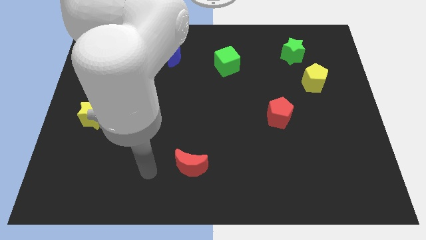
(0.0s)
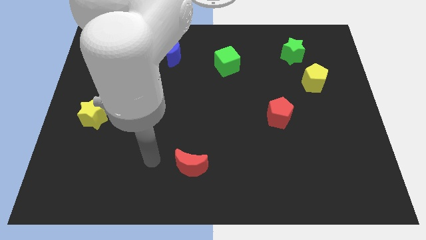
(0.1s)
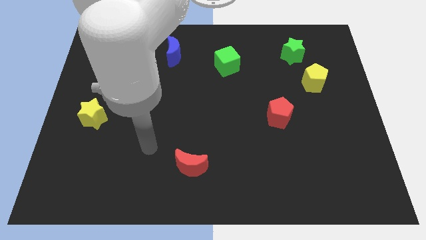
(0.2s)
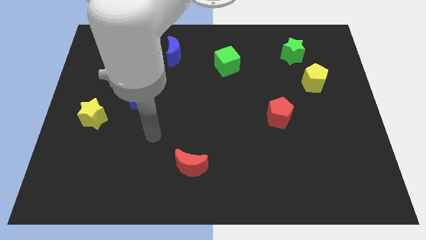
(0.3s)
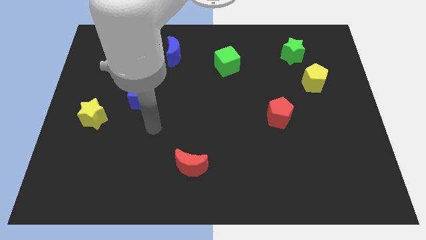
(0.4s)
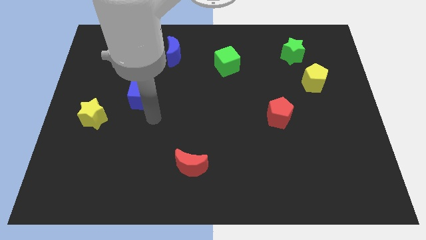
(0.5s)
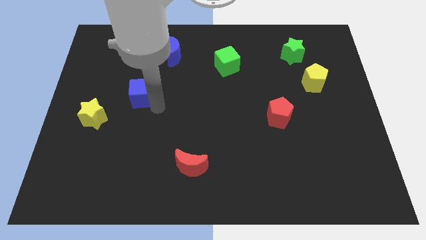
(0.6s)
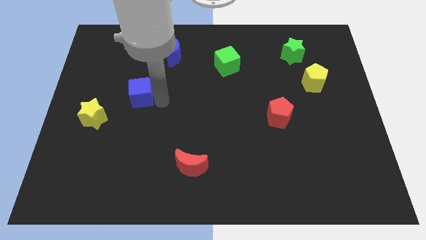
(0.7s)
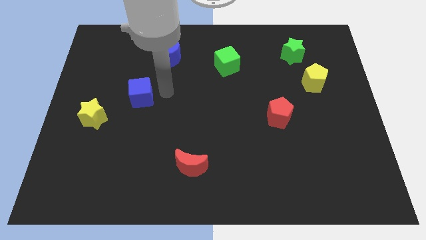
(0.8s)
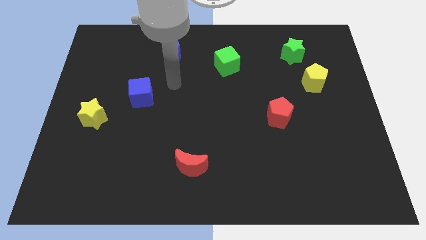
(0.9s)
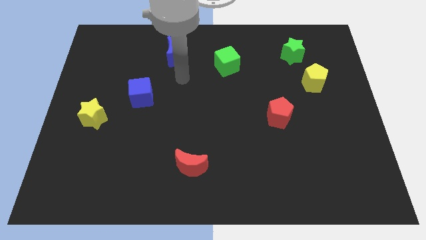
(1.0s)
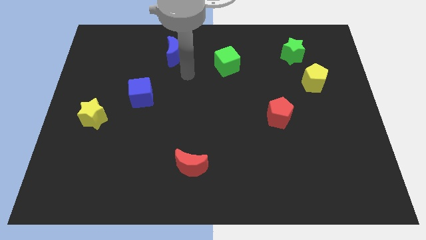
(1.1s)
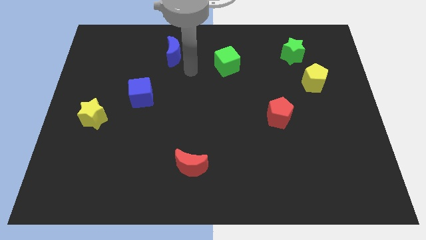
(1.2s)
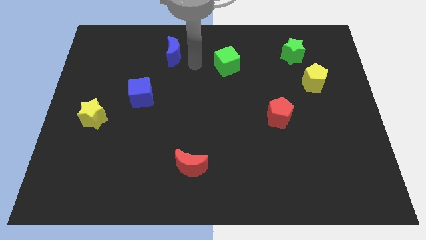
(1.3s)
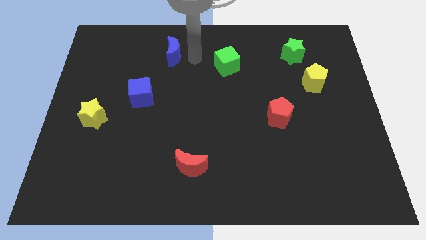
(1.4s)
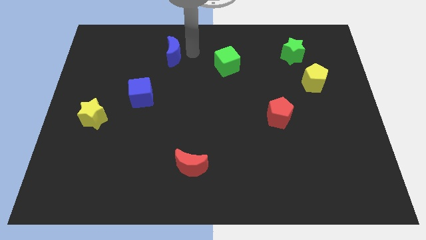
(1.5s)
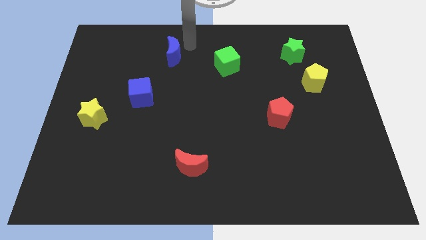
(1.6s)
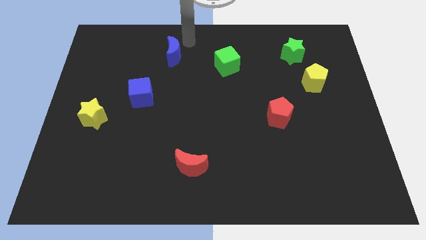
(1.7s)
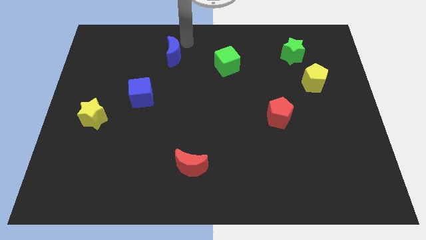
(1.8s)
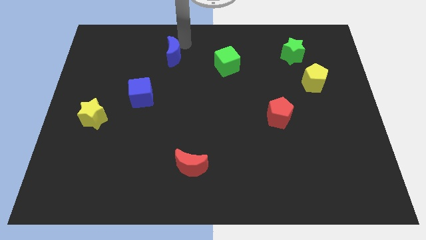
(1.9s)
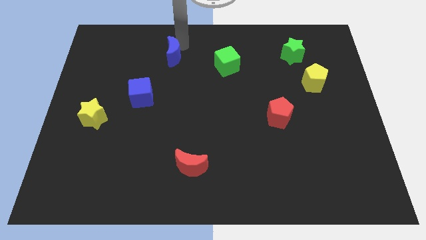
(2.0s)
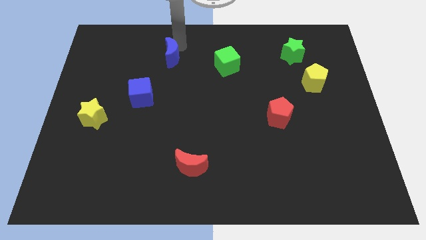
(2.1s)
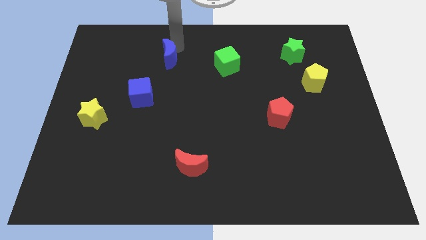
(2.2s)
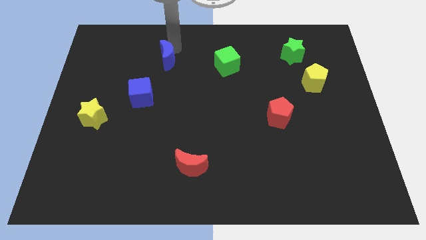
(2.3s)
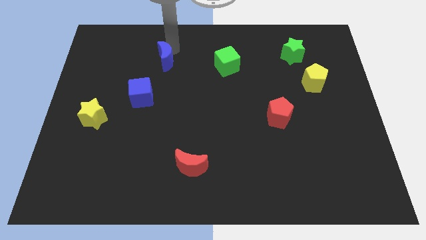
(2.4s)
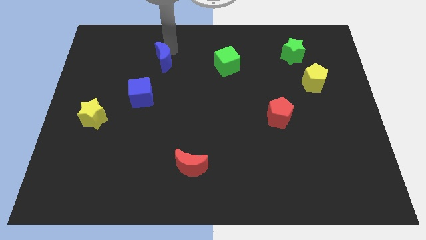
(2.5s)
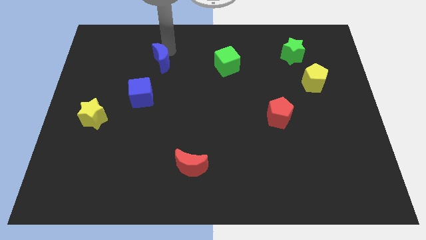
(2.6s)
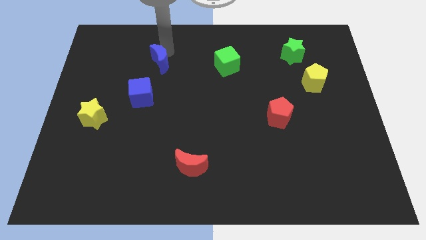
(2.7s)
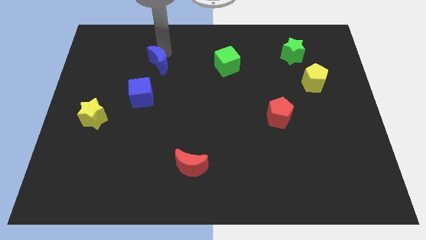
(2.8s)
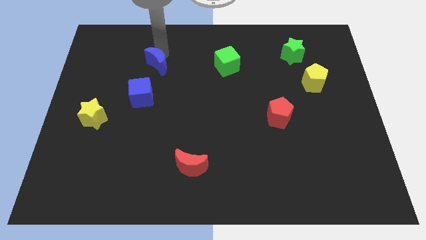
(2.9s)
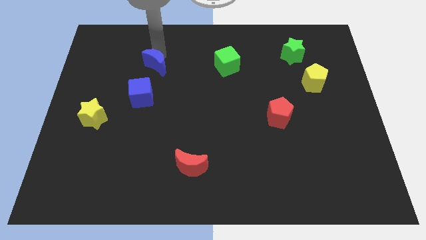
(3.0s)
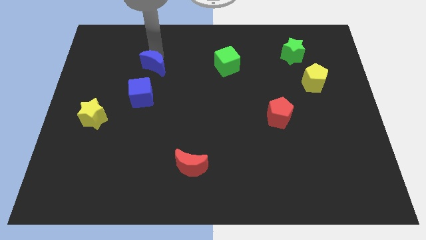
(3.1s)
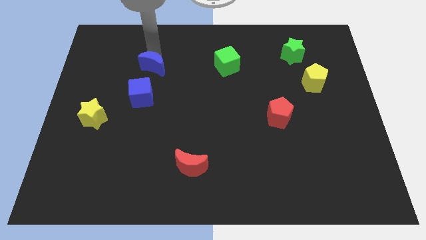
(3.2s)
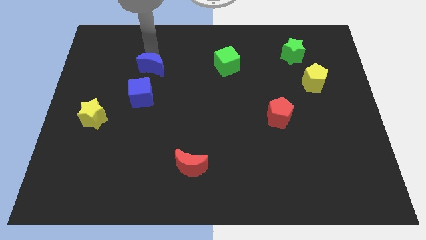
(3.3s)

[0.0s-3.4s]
push the blue moon slightly downwards and then left

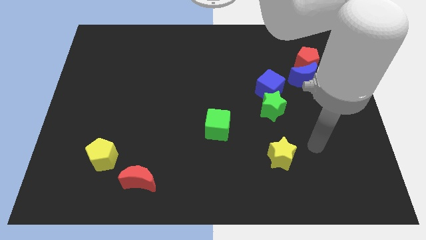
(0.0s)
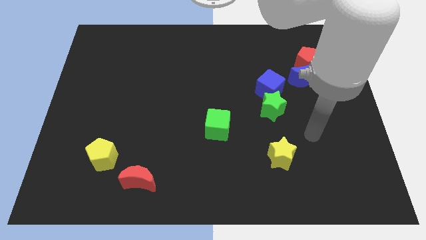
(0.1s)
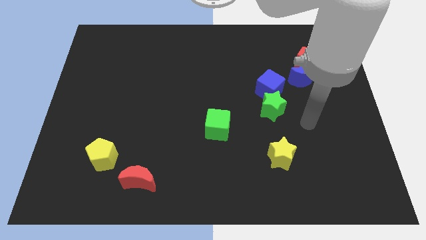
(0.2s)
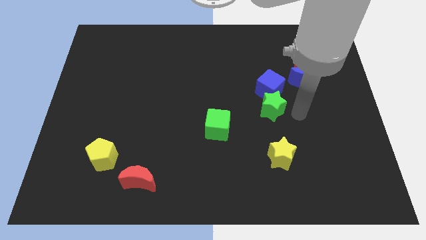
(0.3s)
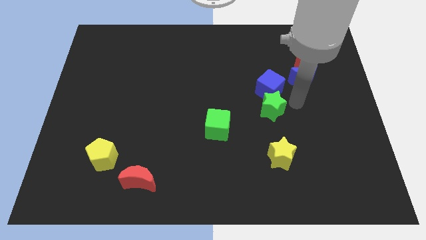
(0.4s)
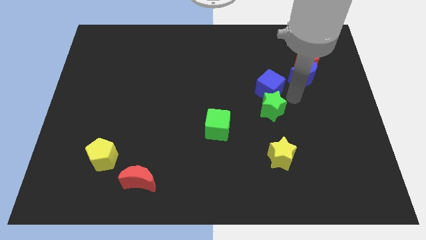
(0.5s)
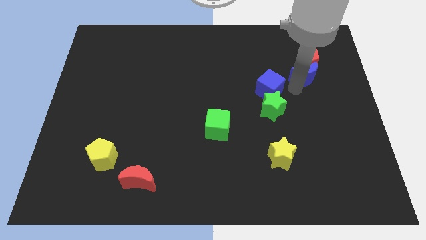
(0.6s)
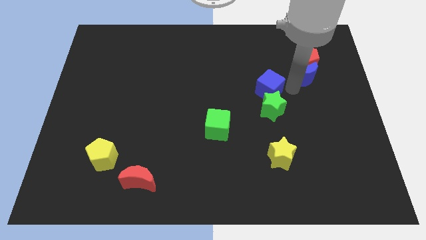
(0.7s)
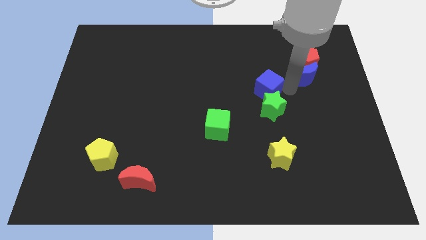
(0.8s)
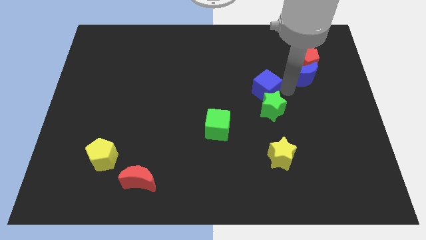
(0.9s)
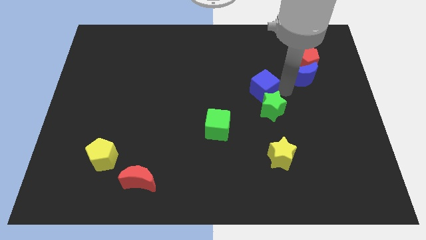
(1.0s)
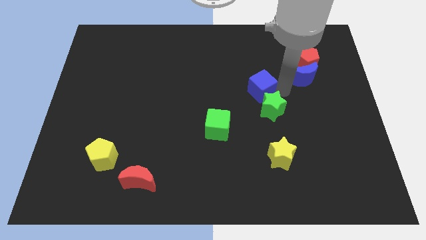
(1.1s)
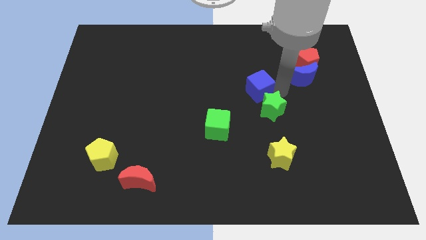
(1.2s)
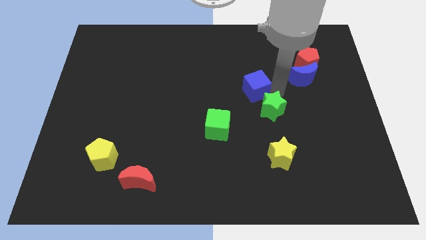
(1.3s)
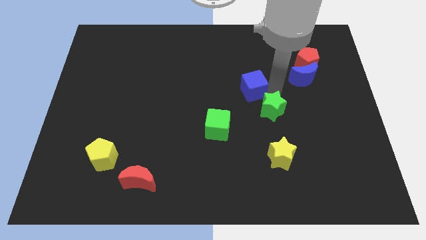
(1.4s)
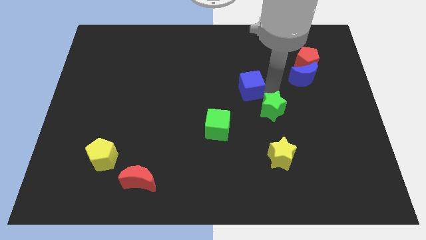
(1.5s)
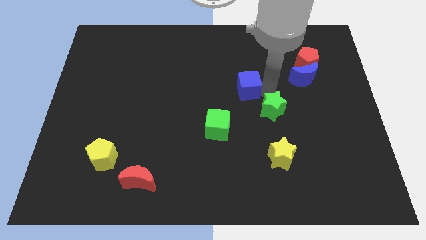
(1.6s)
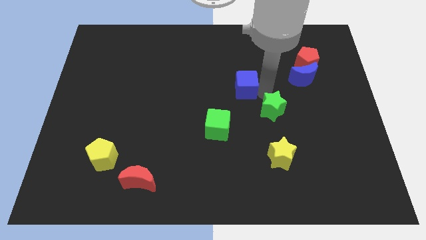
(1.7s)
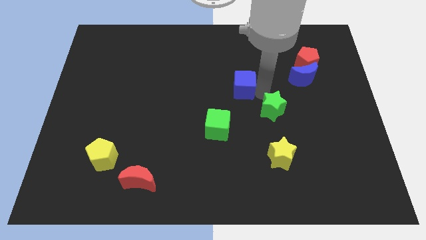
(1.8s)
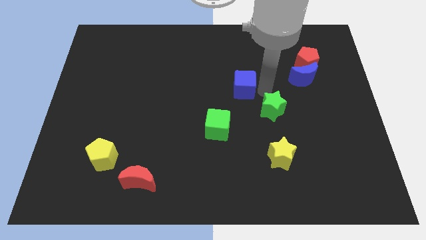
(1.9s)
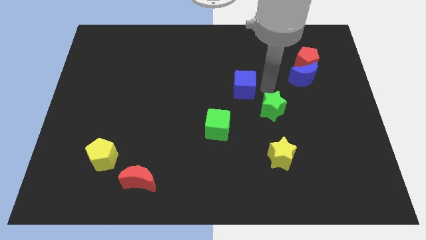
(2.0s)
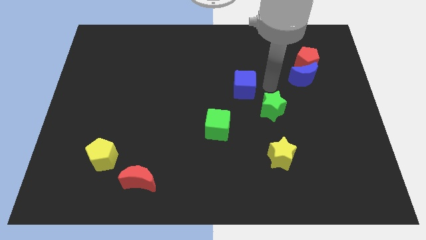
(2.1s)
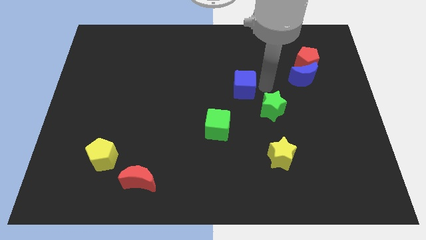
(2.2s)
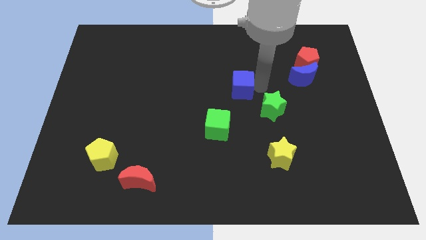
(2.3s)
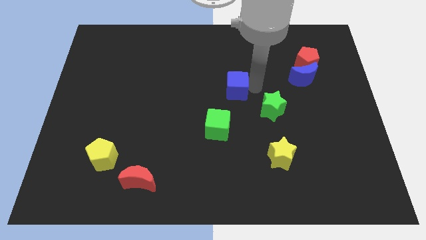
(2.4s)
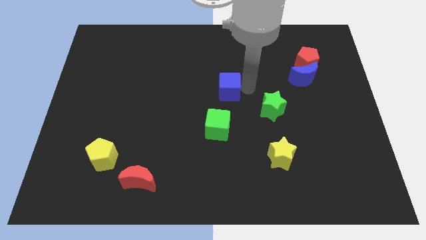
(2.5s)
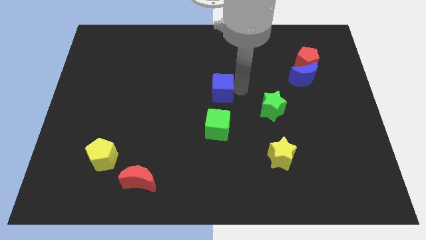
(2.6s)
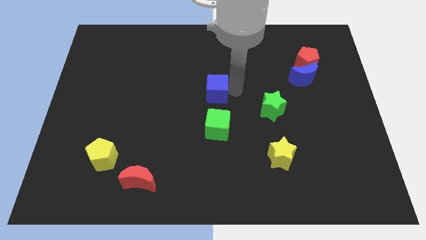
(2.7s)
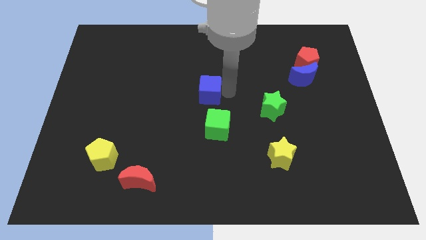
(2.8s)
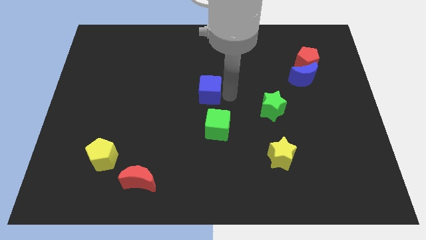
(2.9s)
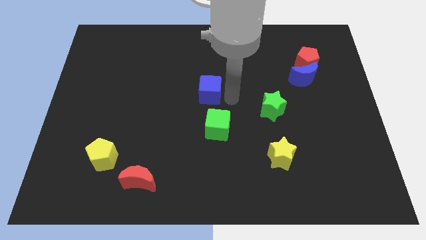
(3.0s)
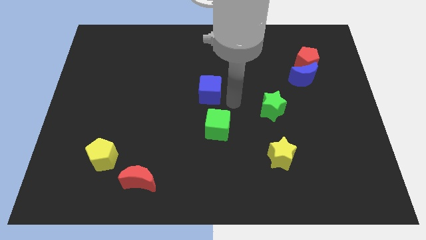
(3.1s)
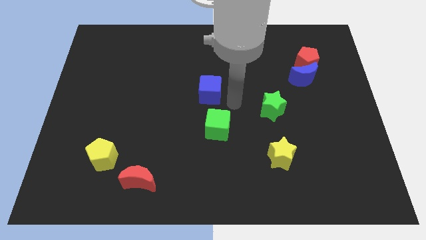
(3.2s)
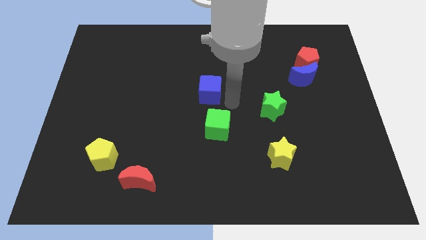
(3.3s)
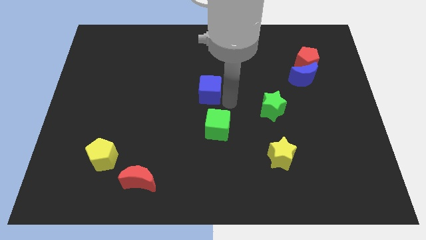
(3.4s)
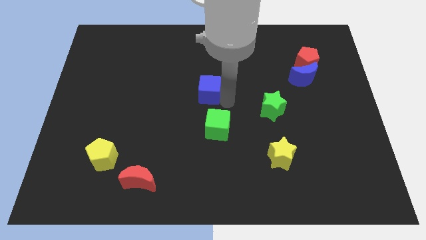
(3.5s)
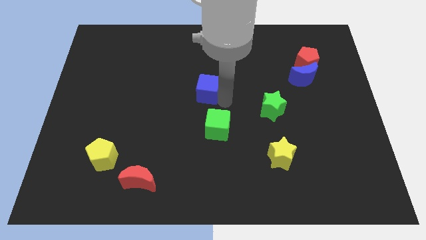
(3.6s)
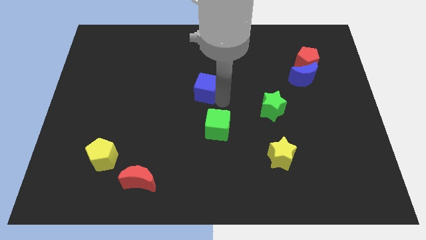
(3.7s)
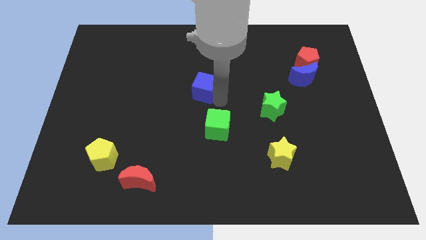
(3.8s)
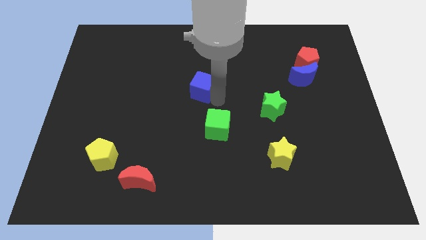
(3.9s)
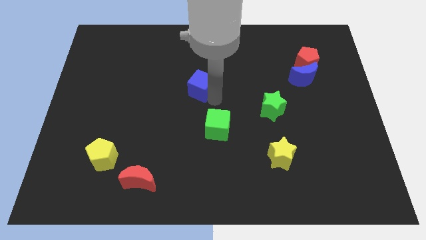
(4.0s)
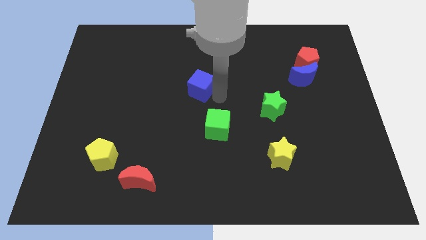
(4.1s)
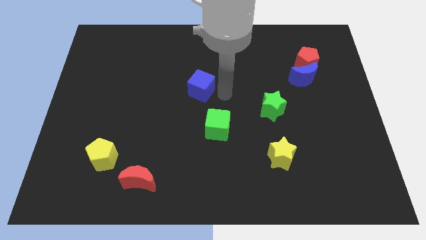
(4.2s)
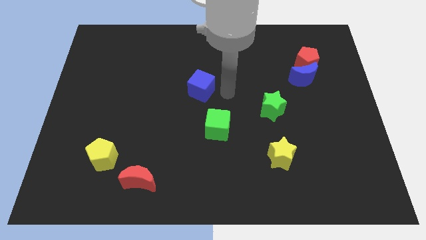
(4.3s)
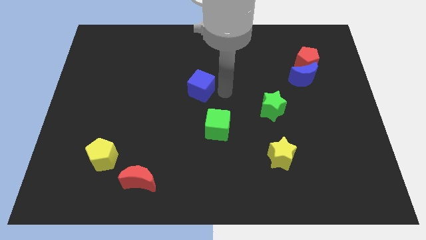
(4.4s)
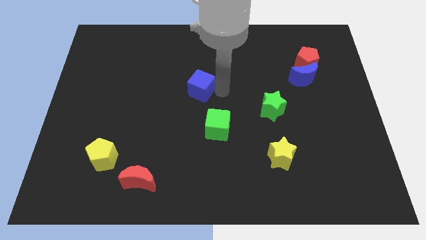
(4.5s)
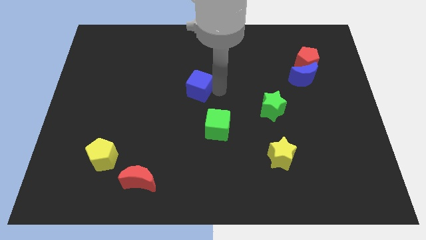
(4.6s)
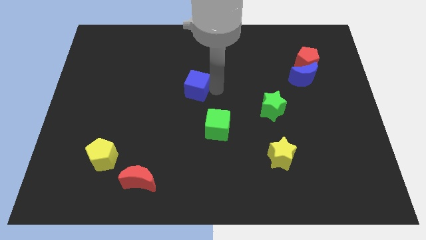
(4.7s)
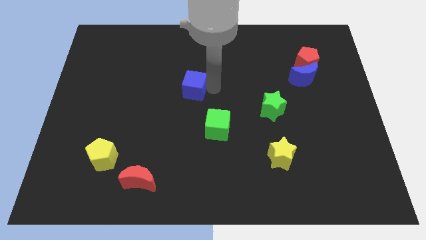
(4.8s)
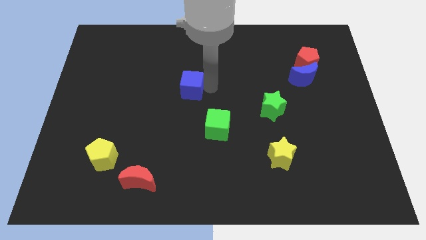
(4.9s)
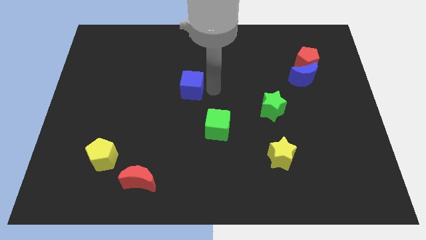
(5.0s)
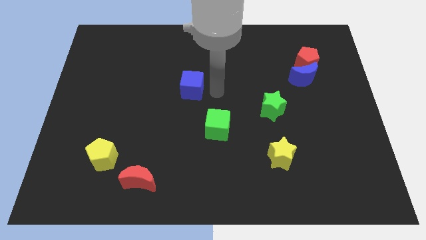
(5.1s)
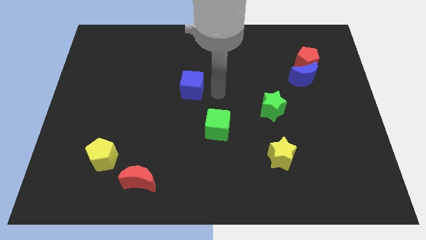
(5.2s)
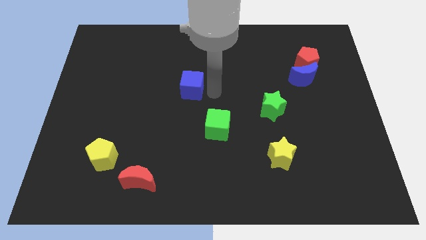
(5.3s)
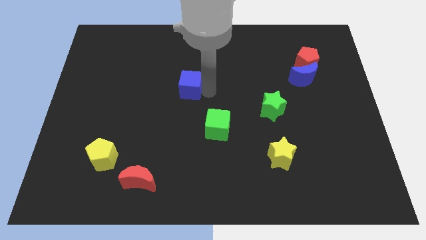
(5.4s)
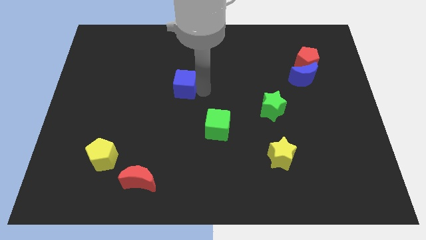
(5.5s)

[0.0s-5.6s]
slide the blue cube left
